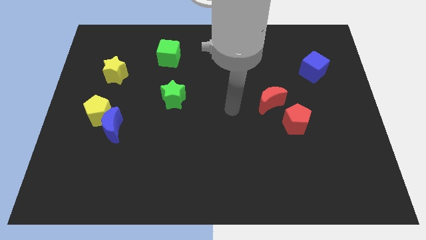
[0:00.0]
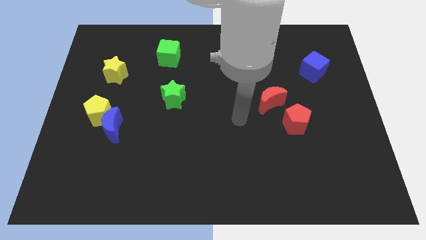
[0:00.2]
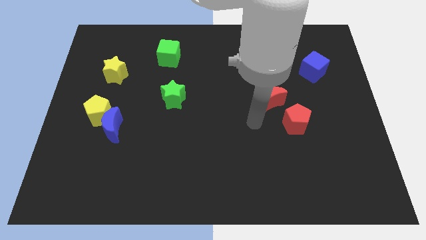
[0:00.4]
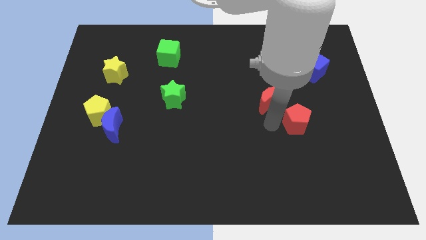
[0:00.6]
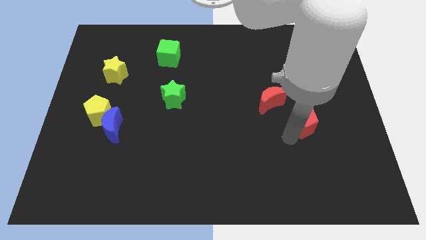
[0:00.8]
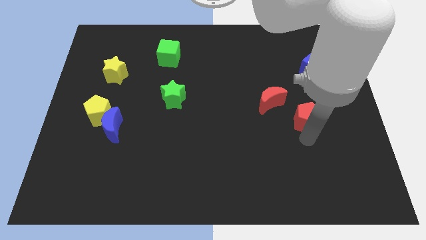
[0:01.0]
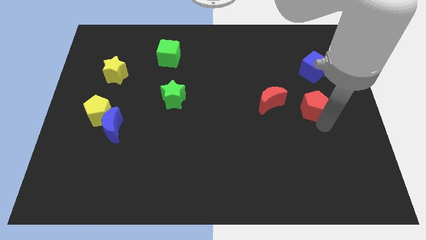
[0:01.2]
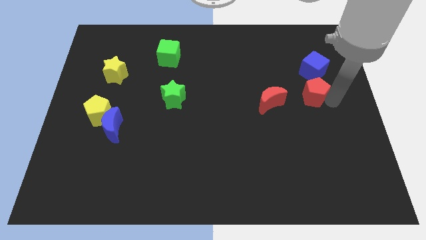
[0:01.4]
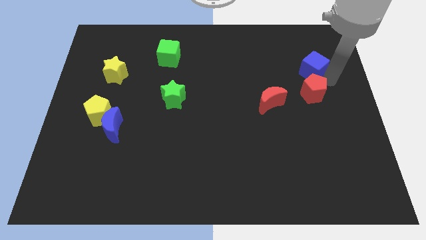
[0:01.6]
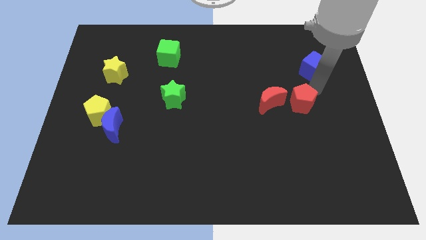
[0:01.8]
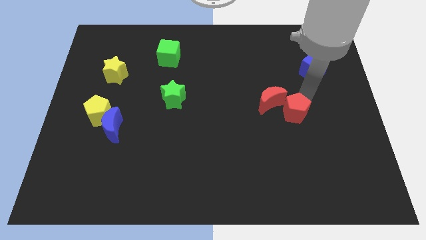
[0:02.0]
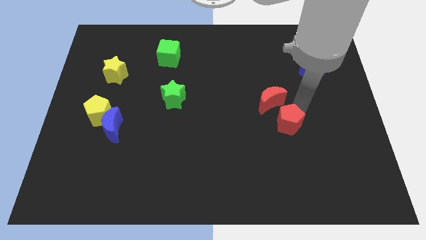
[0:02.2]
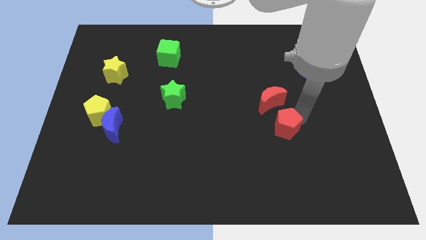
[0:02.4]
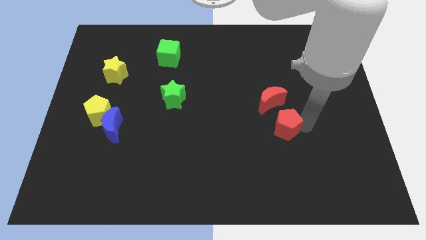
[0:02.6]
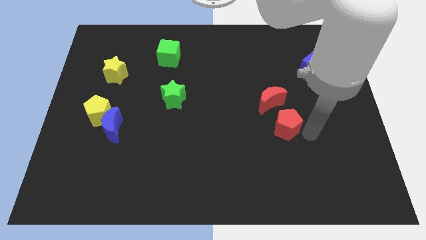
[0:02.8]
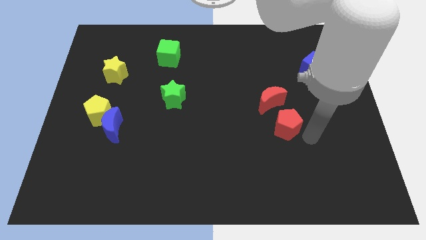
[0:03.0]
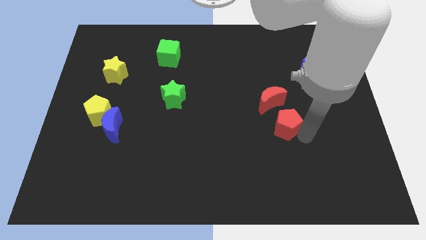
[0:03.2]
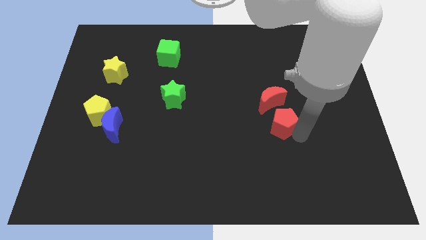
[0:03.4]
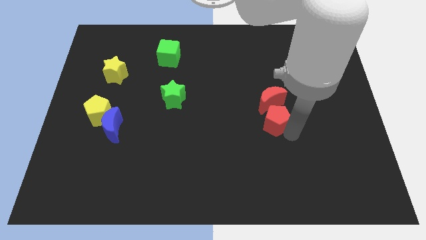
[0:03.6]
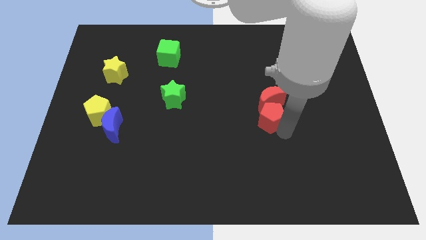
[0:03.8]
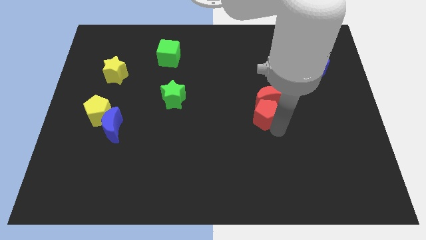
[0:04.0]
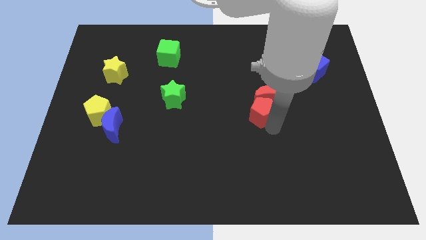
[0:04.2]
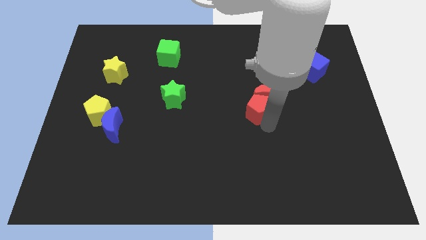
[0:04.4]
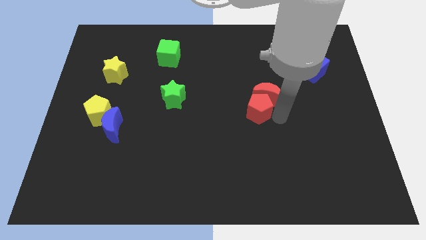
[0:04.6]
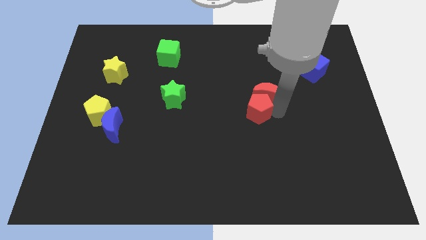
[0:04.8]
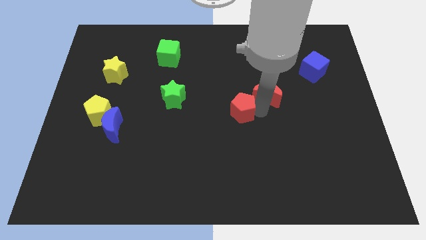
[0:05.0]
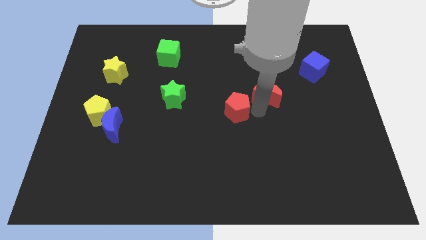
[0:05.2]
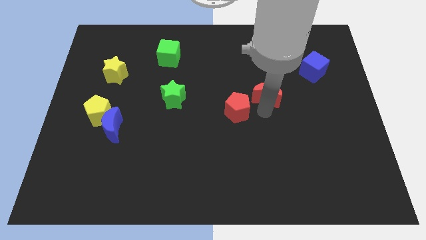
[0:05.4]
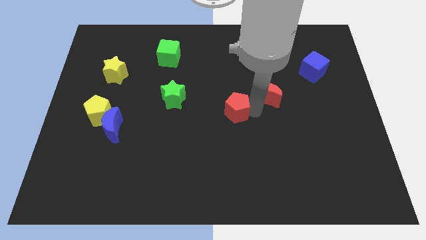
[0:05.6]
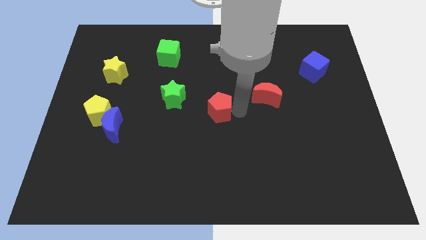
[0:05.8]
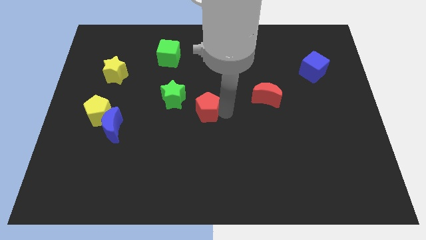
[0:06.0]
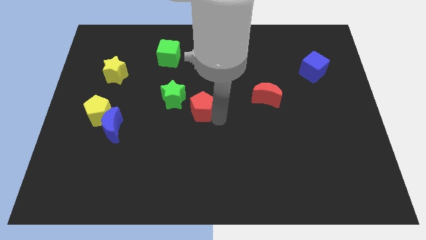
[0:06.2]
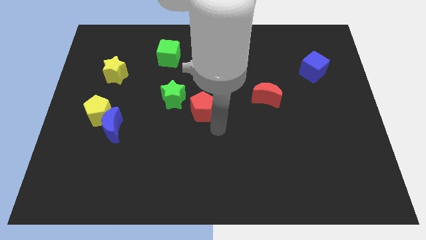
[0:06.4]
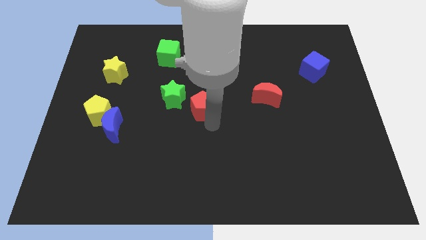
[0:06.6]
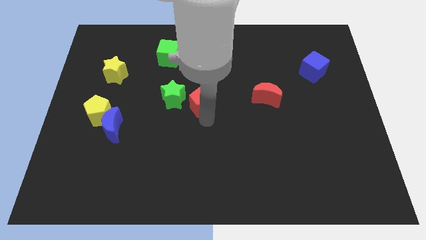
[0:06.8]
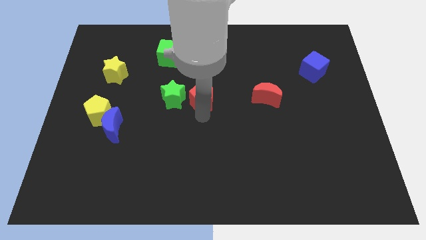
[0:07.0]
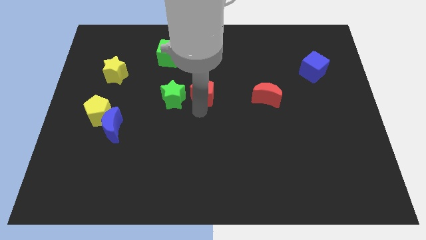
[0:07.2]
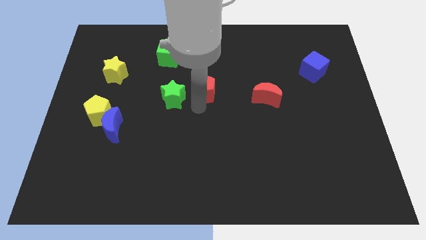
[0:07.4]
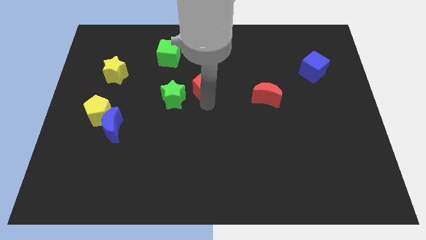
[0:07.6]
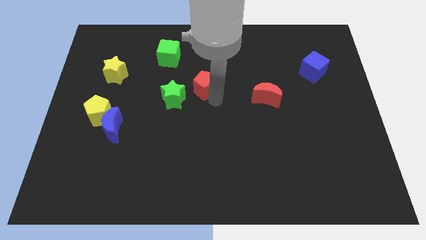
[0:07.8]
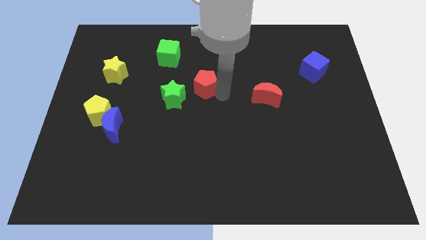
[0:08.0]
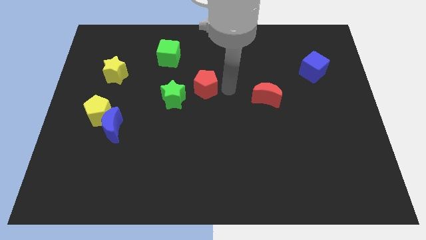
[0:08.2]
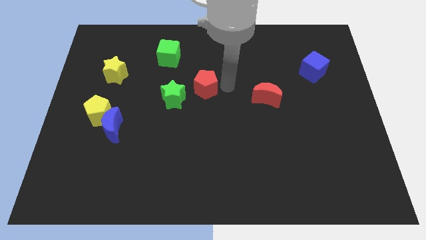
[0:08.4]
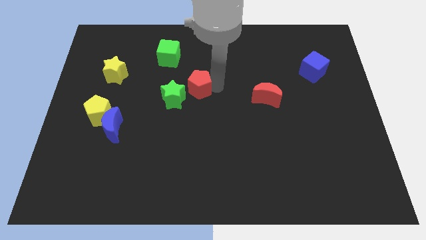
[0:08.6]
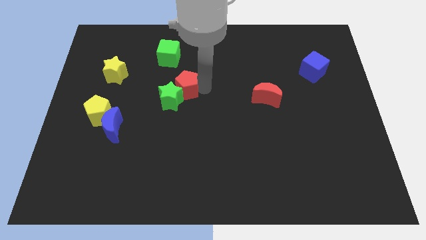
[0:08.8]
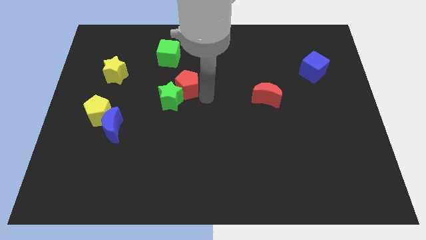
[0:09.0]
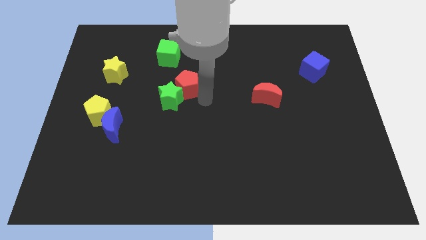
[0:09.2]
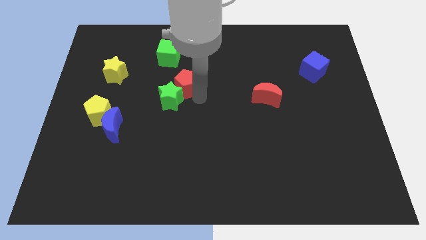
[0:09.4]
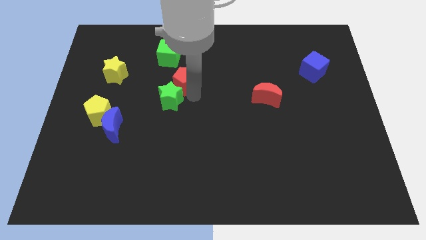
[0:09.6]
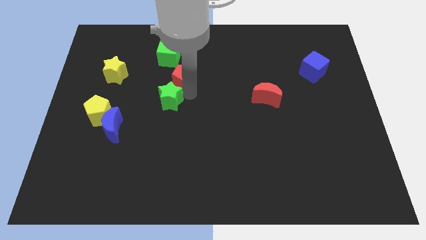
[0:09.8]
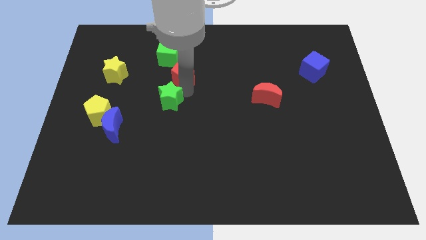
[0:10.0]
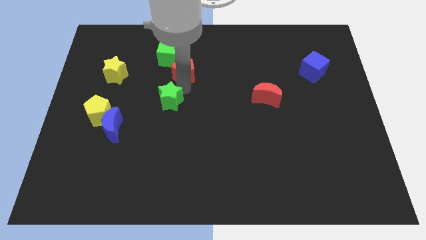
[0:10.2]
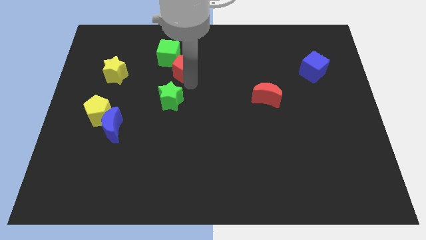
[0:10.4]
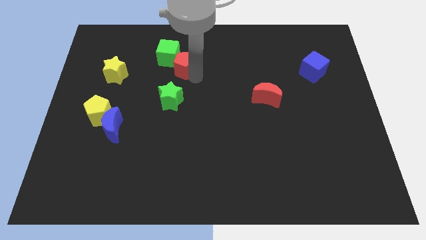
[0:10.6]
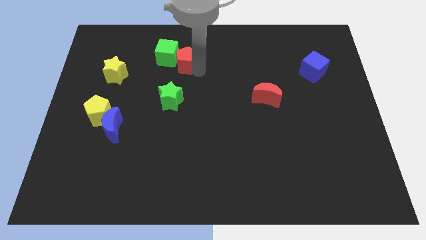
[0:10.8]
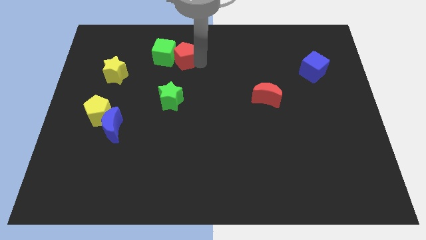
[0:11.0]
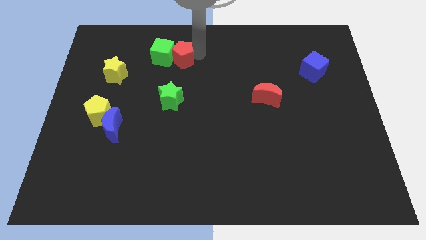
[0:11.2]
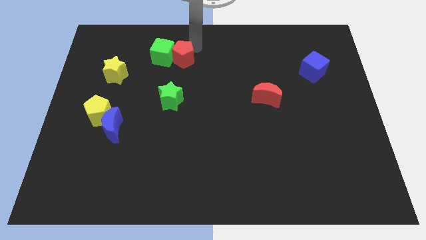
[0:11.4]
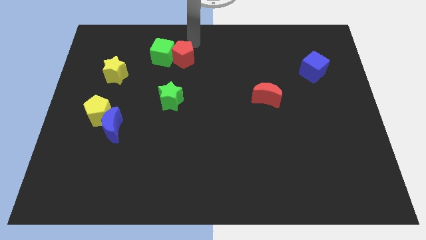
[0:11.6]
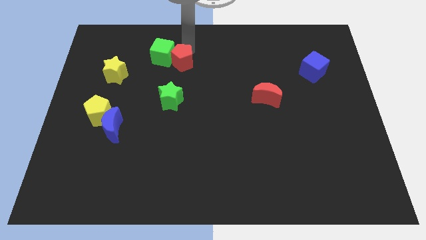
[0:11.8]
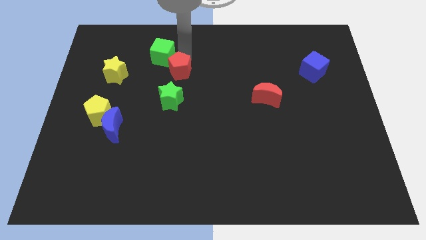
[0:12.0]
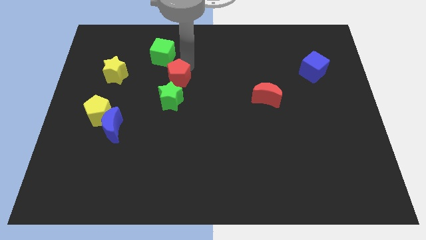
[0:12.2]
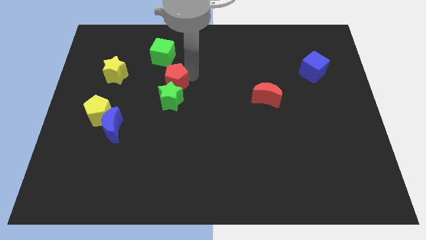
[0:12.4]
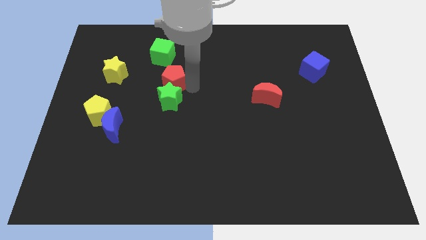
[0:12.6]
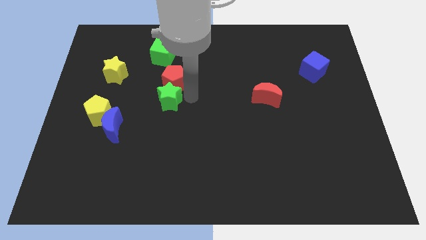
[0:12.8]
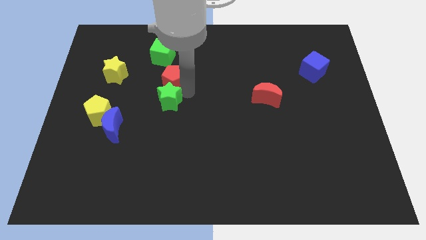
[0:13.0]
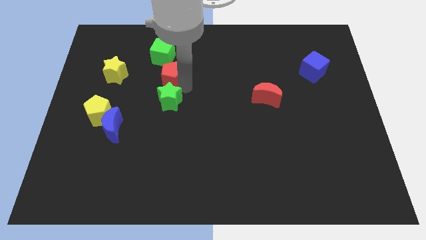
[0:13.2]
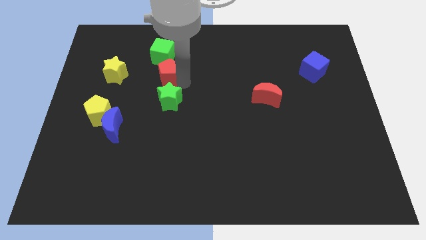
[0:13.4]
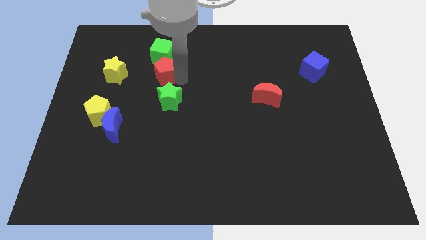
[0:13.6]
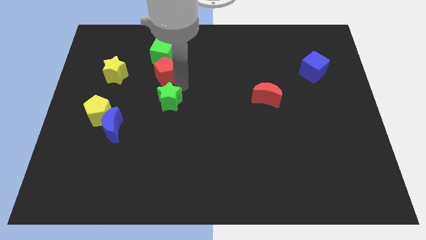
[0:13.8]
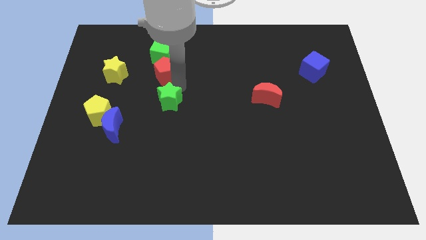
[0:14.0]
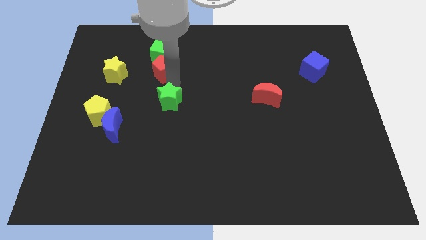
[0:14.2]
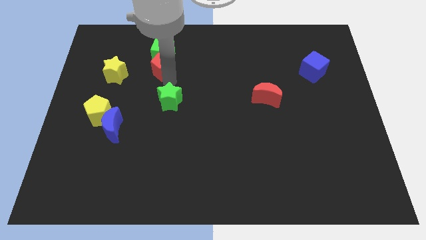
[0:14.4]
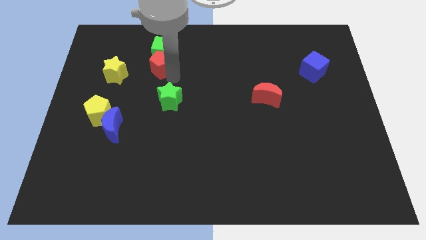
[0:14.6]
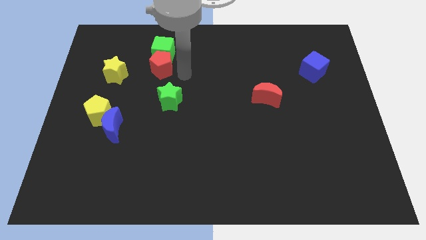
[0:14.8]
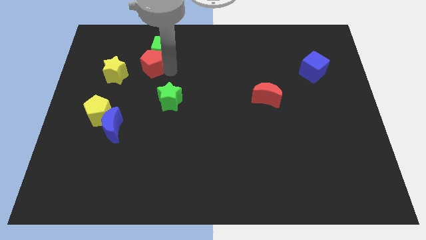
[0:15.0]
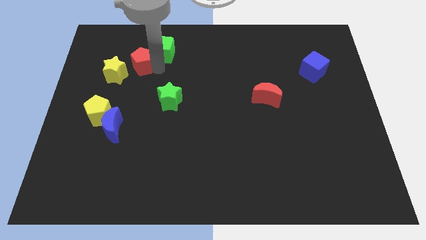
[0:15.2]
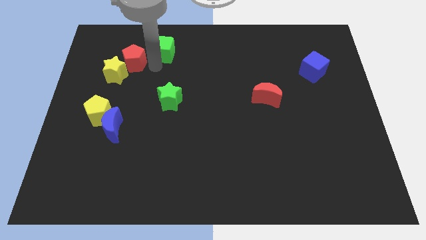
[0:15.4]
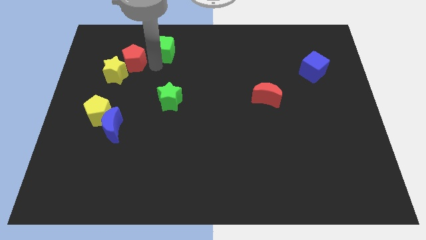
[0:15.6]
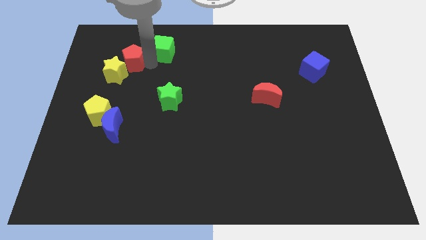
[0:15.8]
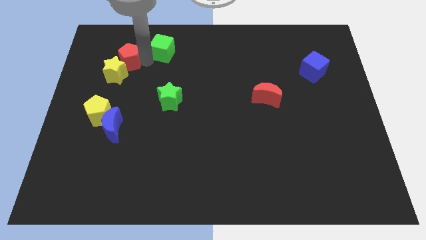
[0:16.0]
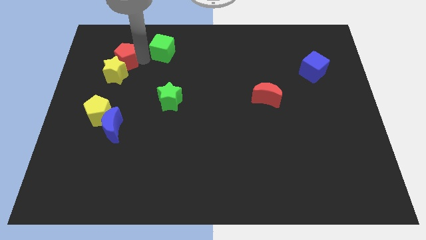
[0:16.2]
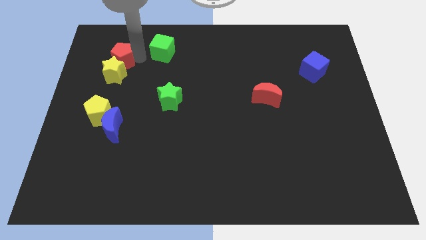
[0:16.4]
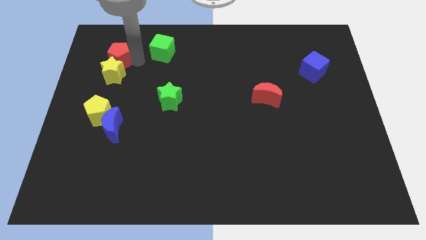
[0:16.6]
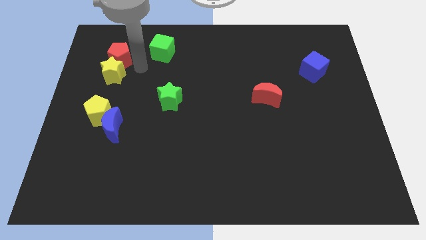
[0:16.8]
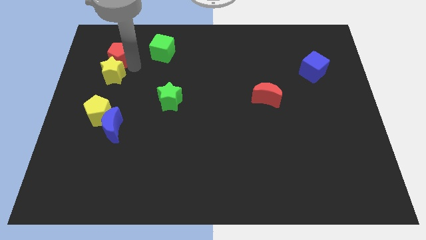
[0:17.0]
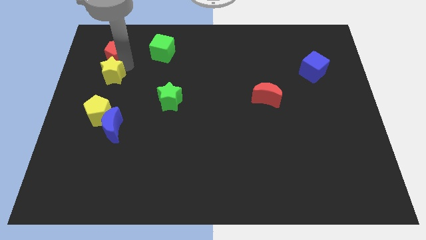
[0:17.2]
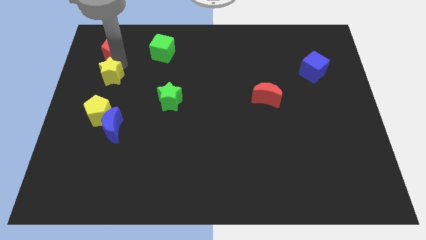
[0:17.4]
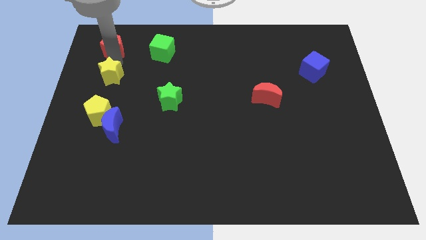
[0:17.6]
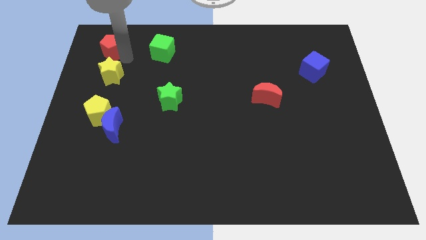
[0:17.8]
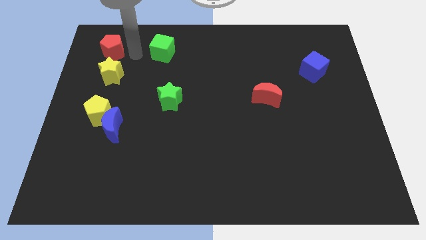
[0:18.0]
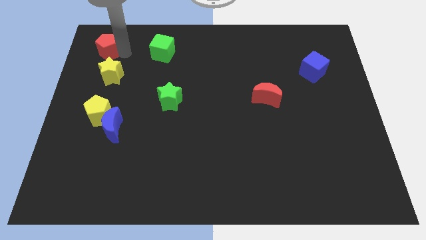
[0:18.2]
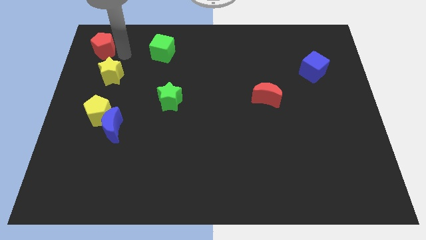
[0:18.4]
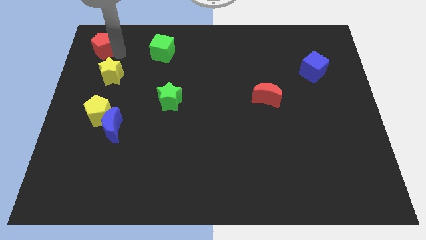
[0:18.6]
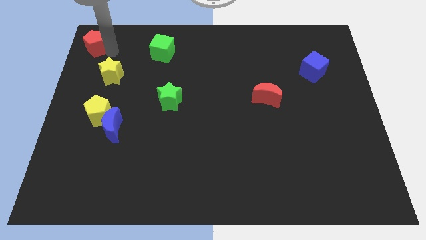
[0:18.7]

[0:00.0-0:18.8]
slide the red pentagon to the top left
